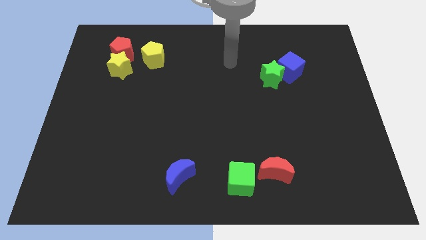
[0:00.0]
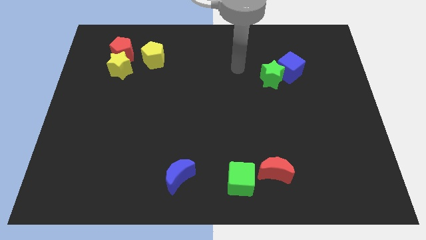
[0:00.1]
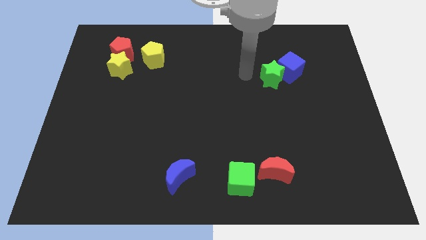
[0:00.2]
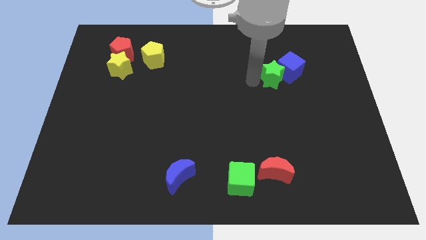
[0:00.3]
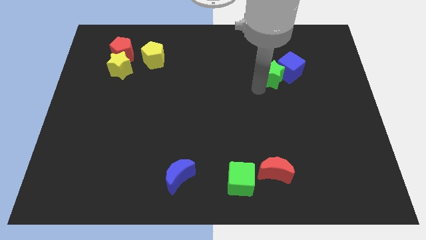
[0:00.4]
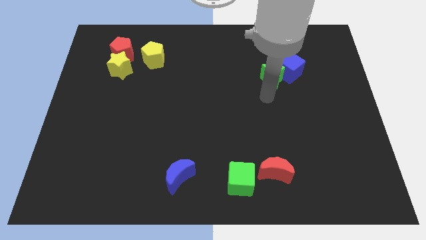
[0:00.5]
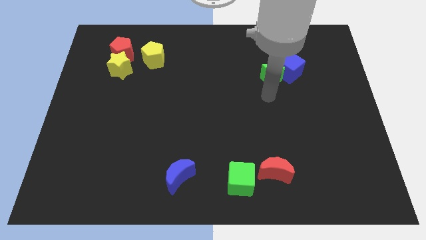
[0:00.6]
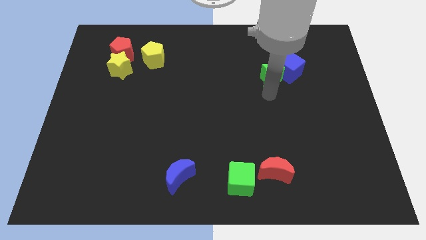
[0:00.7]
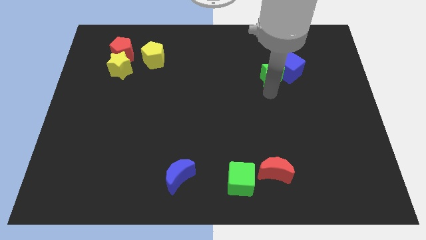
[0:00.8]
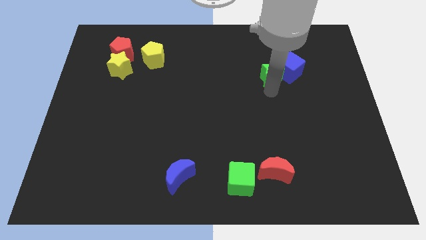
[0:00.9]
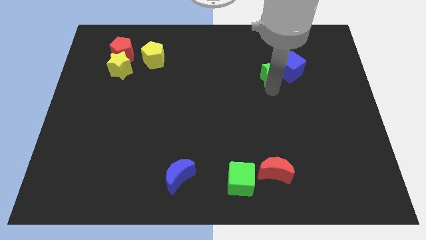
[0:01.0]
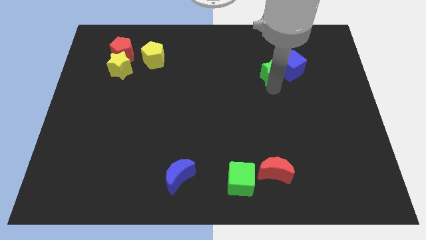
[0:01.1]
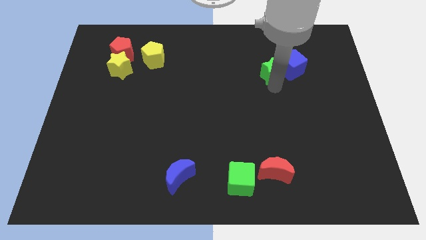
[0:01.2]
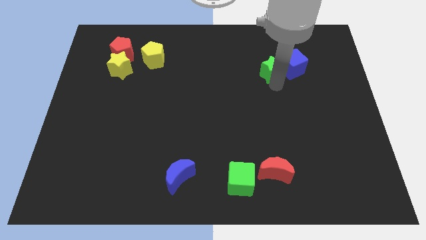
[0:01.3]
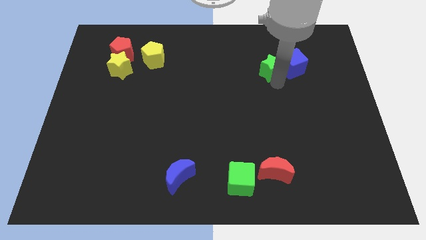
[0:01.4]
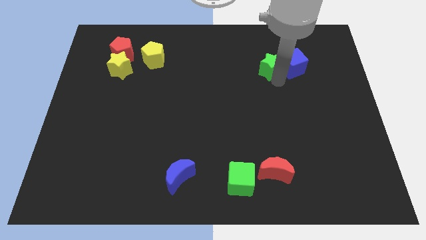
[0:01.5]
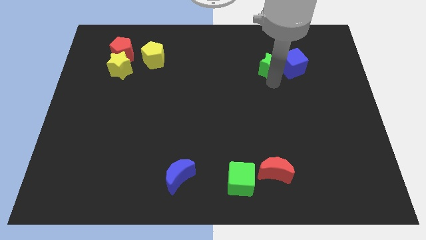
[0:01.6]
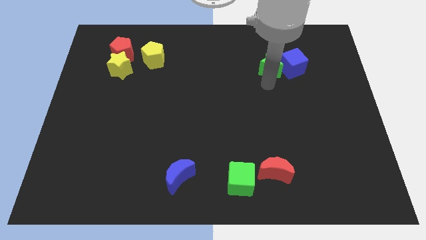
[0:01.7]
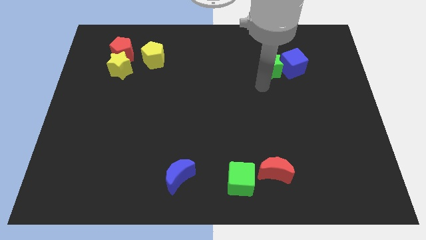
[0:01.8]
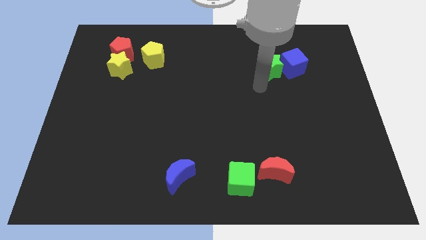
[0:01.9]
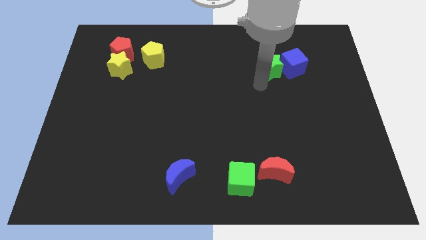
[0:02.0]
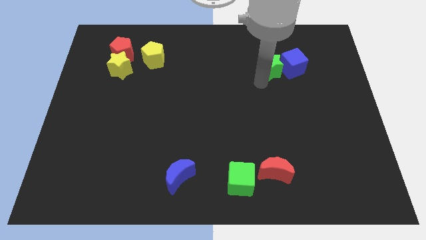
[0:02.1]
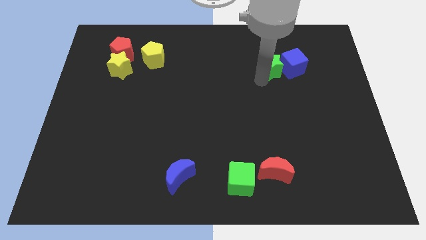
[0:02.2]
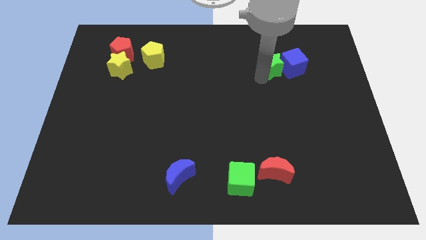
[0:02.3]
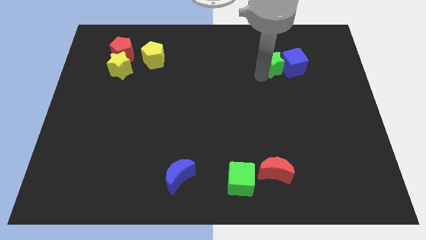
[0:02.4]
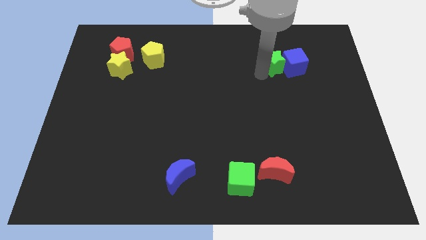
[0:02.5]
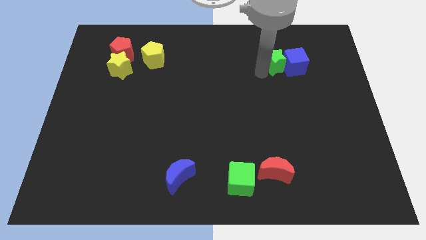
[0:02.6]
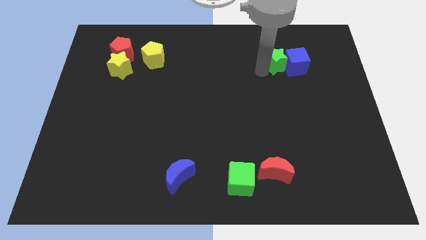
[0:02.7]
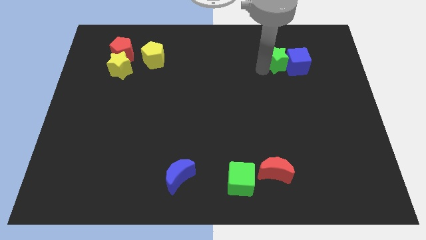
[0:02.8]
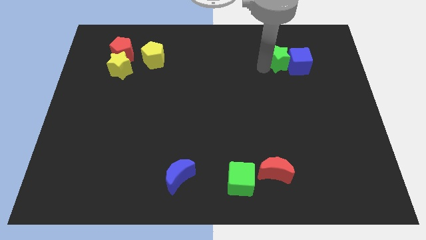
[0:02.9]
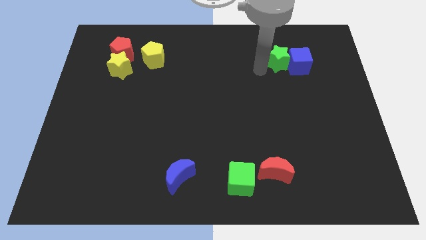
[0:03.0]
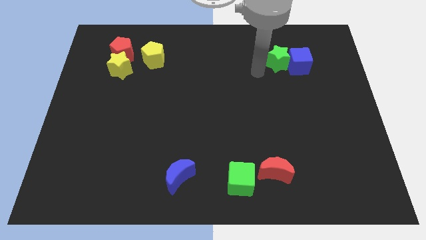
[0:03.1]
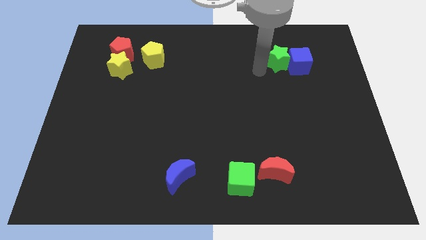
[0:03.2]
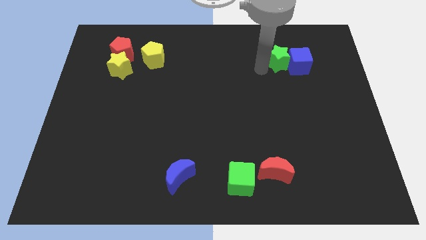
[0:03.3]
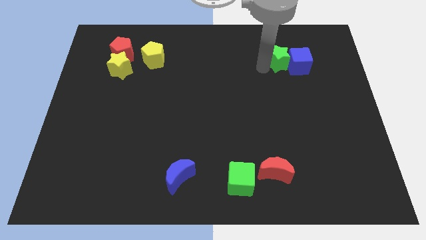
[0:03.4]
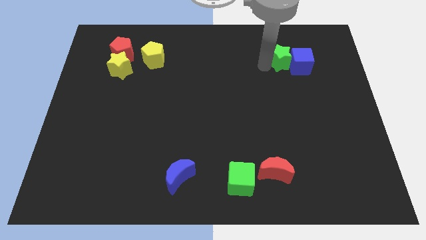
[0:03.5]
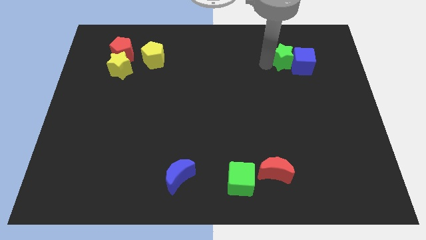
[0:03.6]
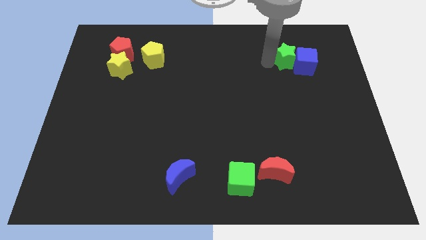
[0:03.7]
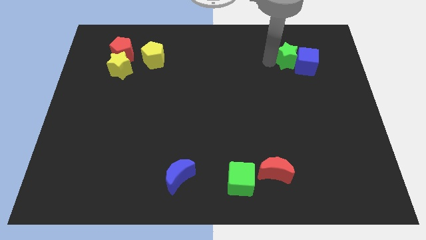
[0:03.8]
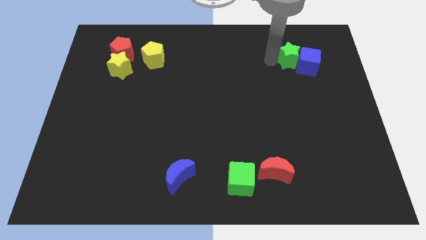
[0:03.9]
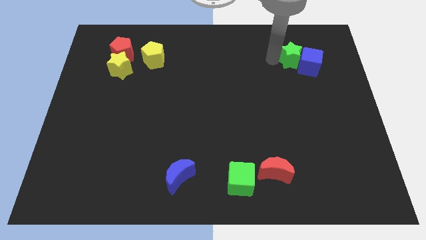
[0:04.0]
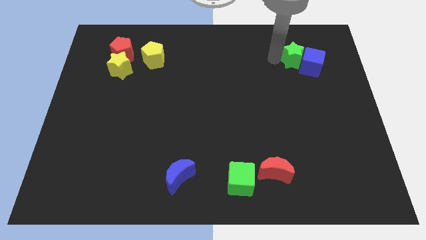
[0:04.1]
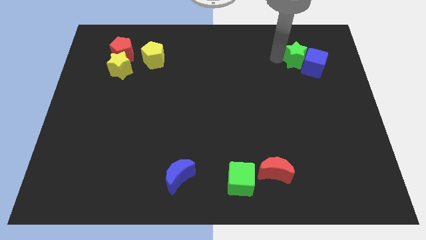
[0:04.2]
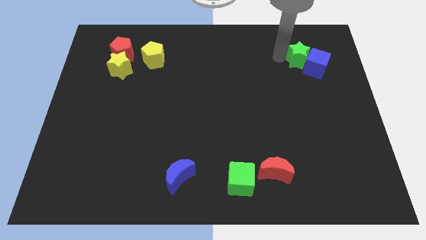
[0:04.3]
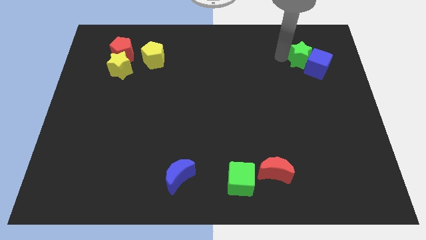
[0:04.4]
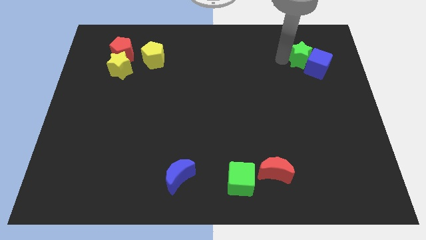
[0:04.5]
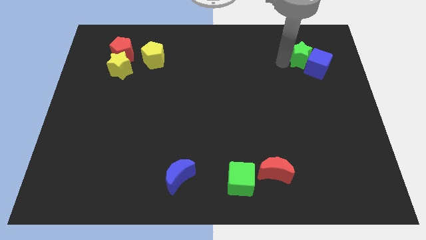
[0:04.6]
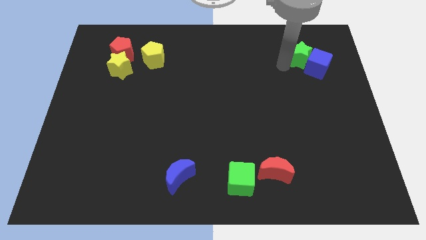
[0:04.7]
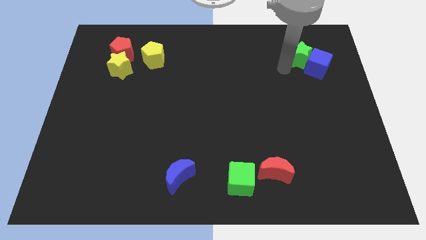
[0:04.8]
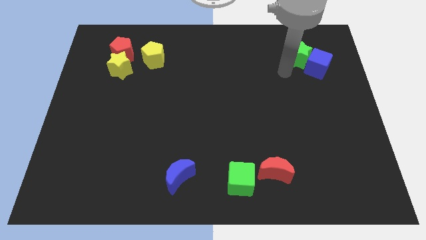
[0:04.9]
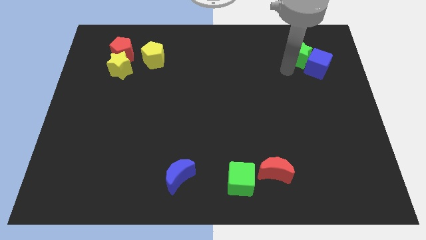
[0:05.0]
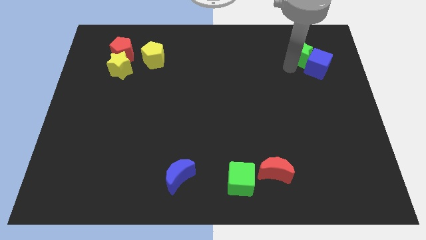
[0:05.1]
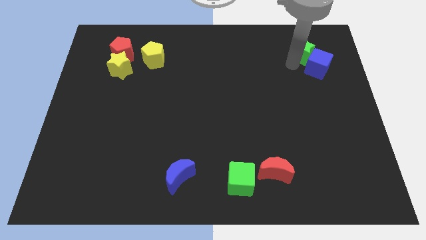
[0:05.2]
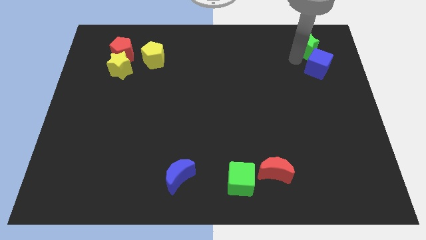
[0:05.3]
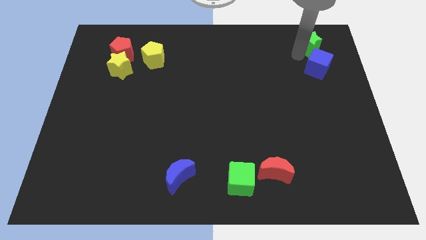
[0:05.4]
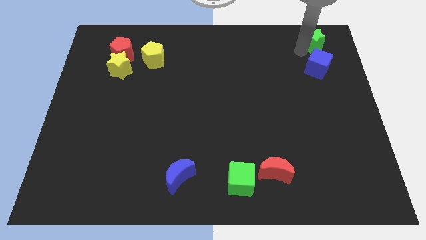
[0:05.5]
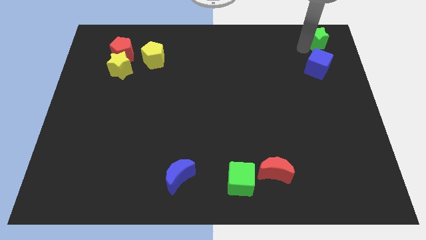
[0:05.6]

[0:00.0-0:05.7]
slide the green star to the top right
